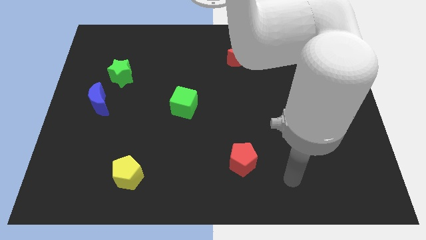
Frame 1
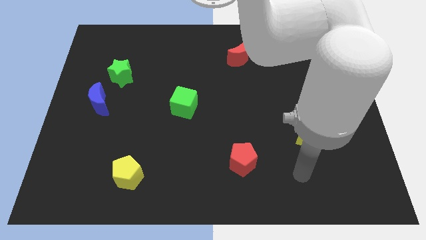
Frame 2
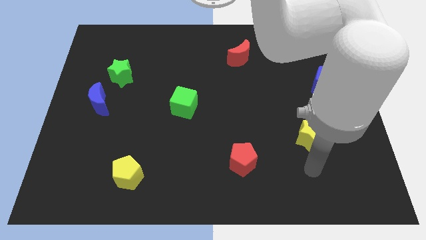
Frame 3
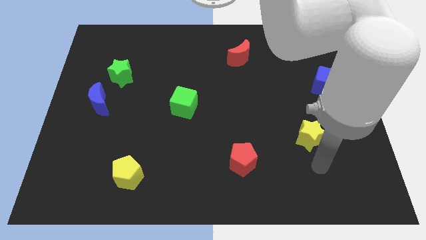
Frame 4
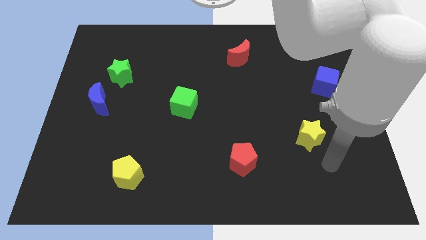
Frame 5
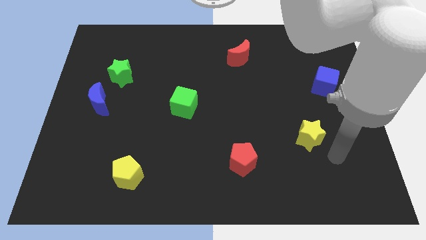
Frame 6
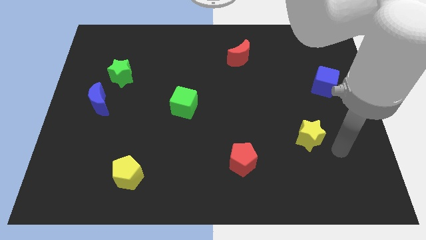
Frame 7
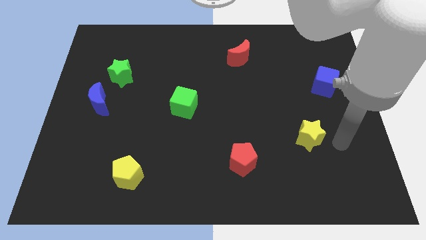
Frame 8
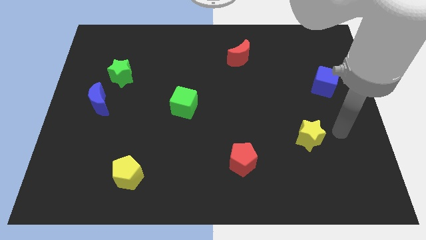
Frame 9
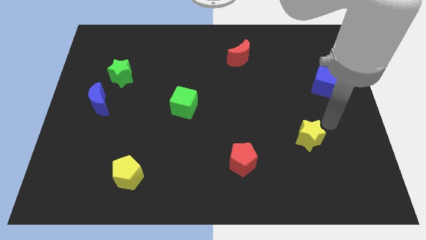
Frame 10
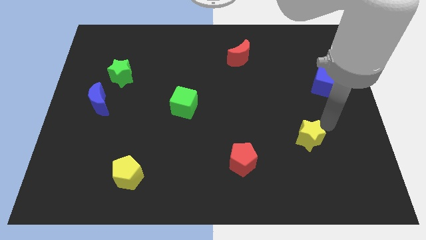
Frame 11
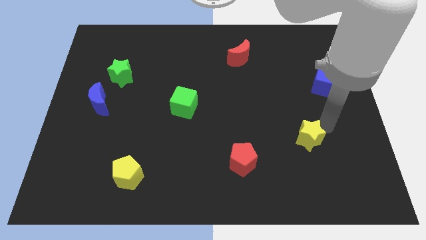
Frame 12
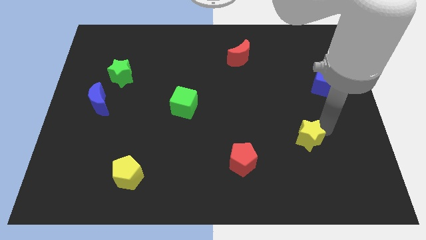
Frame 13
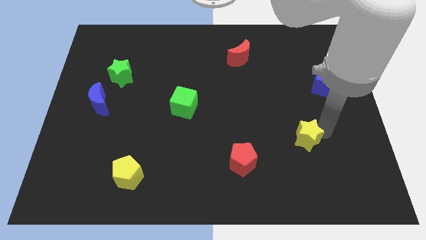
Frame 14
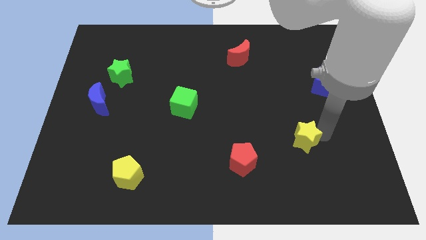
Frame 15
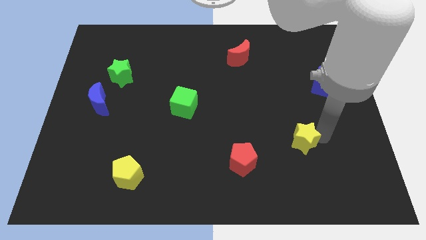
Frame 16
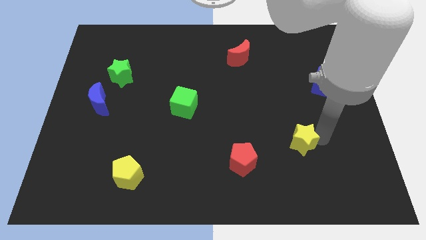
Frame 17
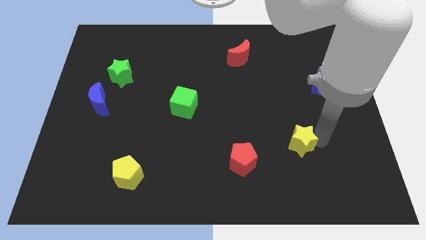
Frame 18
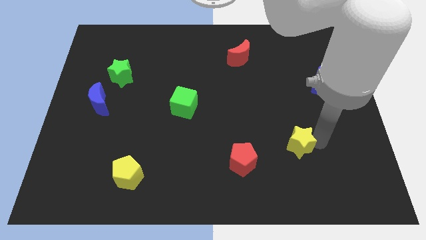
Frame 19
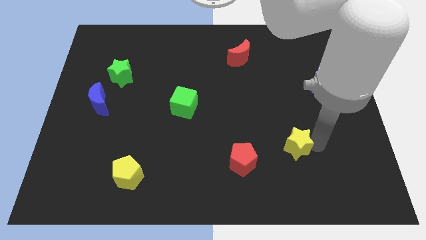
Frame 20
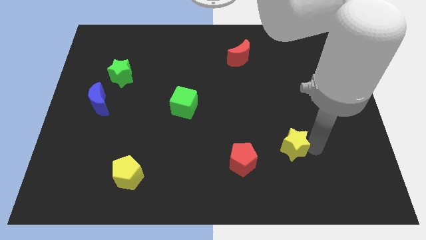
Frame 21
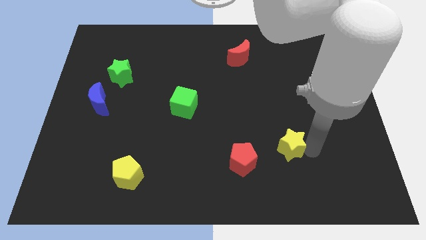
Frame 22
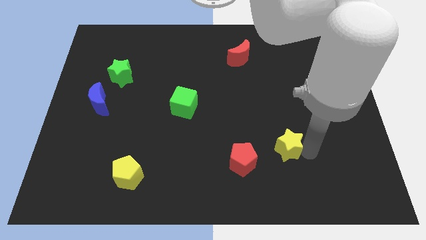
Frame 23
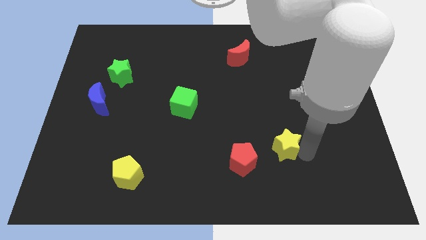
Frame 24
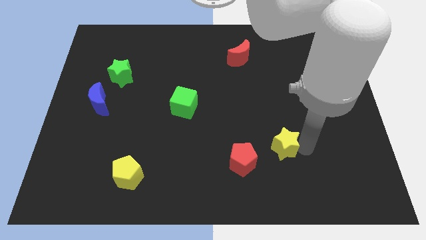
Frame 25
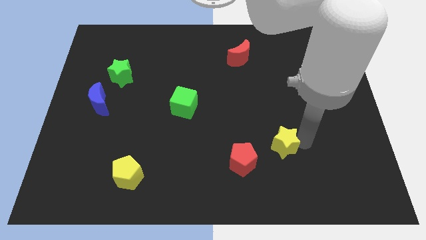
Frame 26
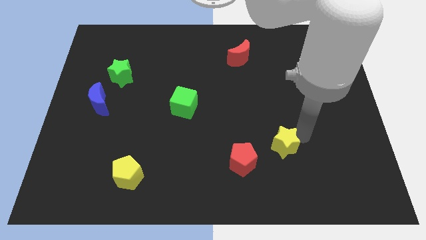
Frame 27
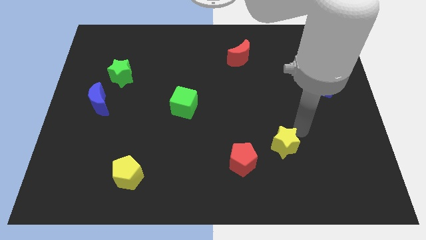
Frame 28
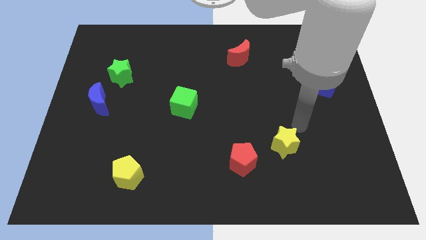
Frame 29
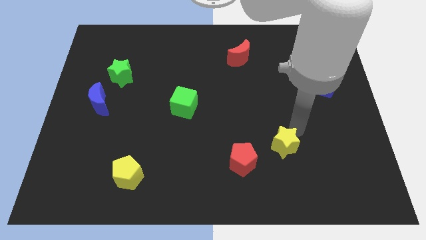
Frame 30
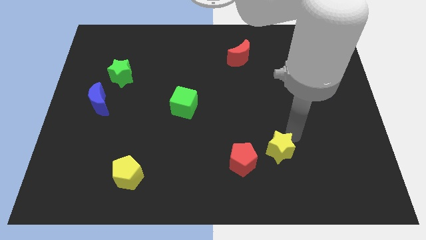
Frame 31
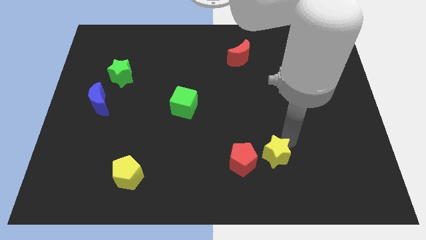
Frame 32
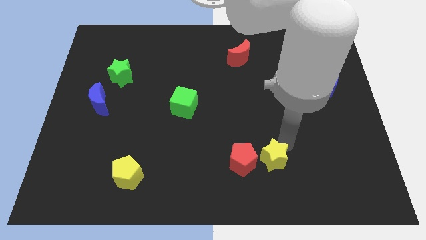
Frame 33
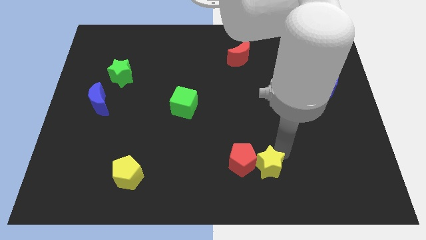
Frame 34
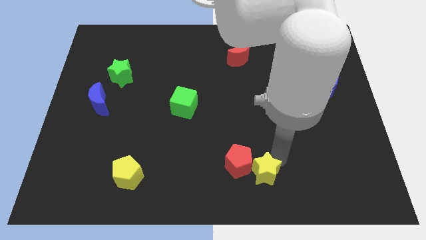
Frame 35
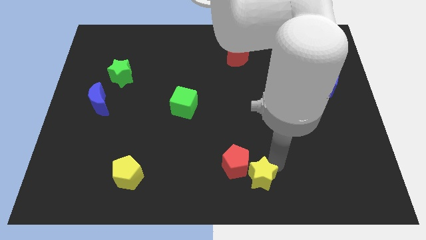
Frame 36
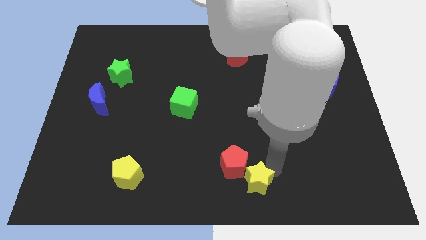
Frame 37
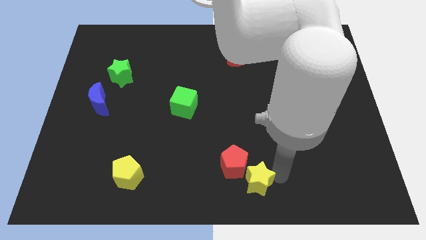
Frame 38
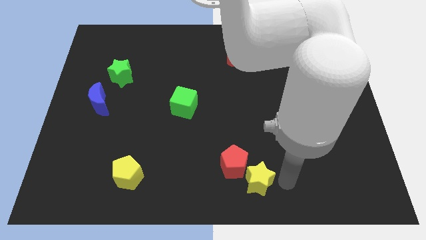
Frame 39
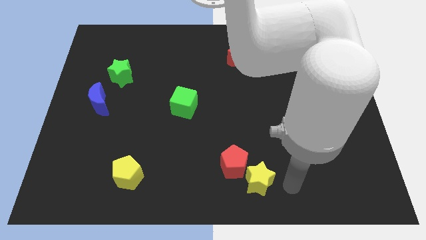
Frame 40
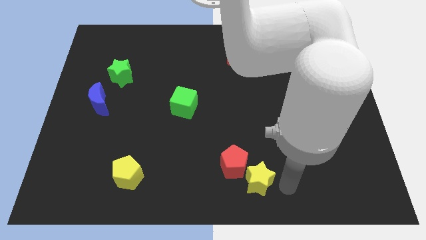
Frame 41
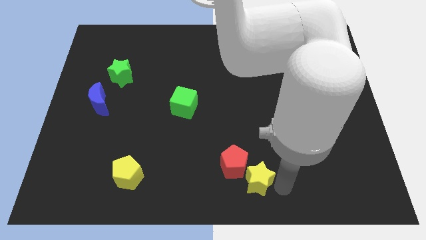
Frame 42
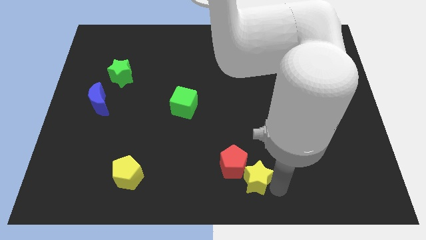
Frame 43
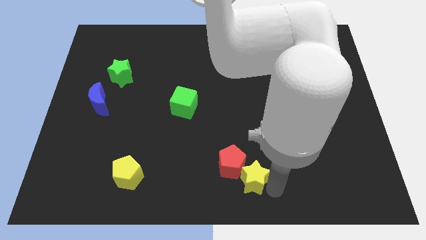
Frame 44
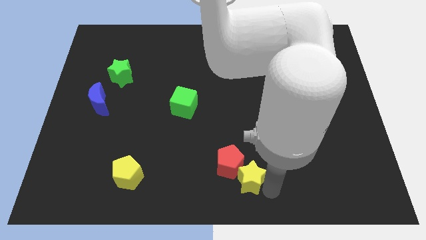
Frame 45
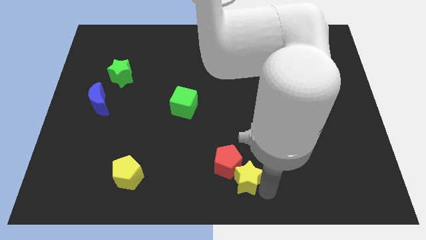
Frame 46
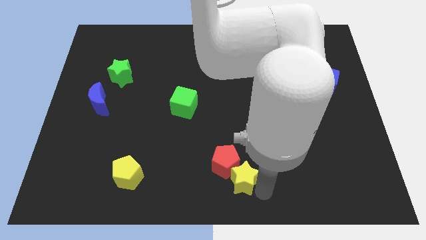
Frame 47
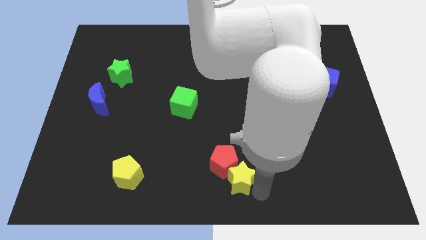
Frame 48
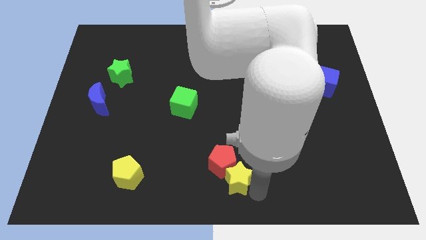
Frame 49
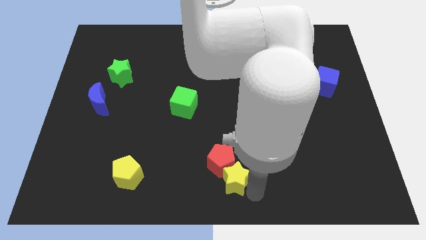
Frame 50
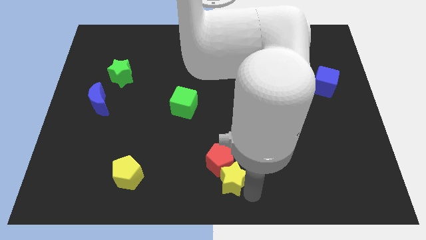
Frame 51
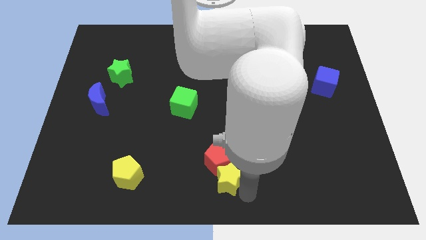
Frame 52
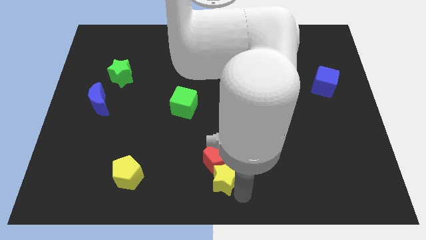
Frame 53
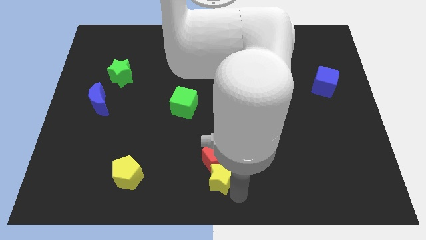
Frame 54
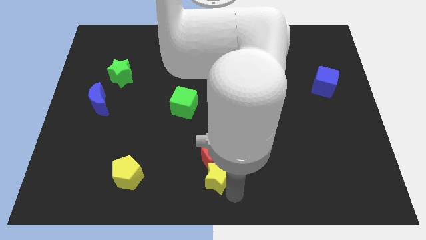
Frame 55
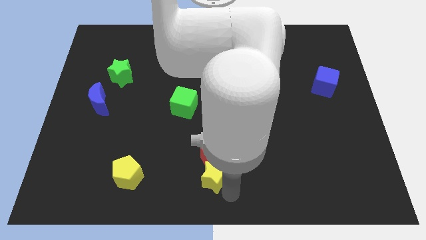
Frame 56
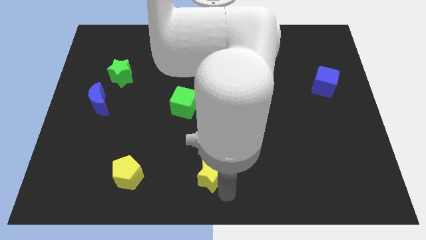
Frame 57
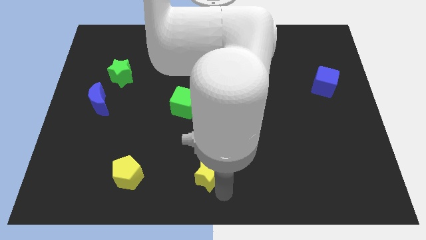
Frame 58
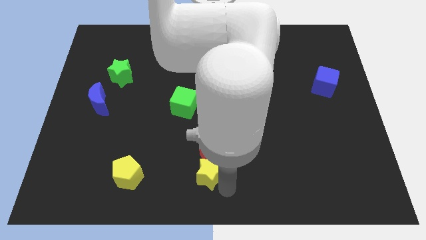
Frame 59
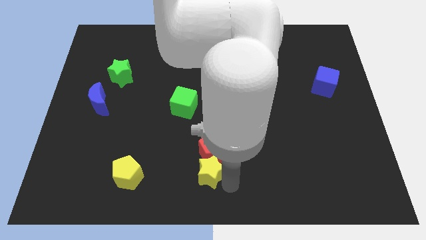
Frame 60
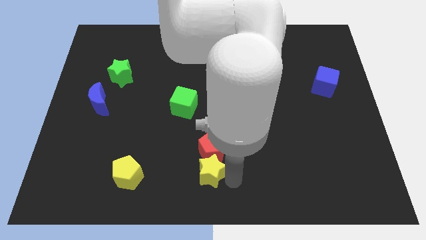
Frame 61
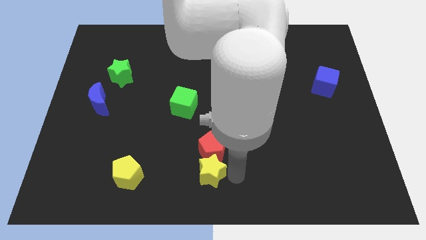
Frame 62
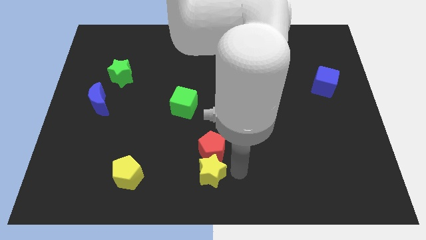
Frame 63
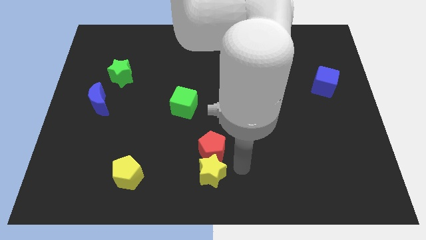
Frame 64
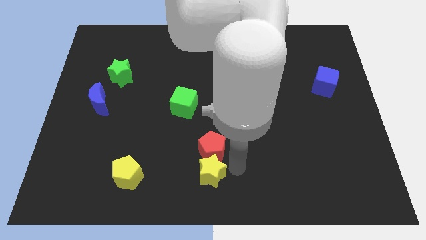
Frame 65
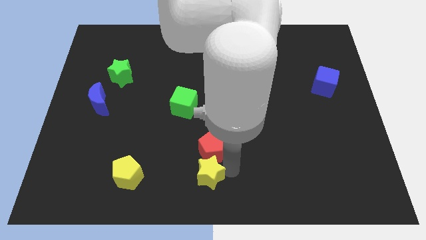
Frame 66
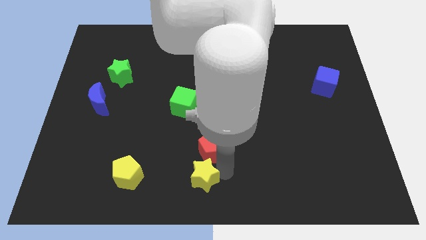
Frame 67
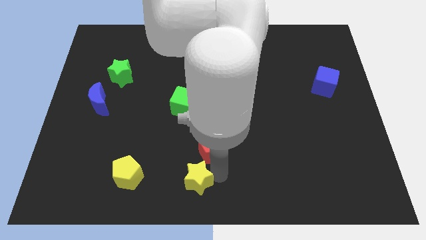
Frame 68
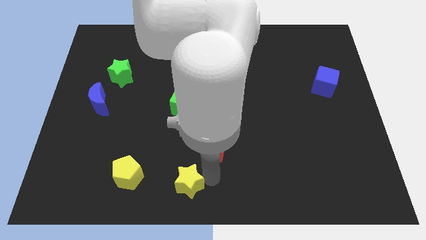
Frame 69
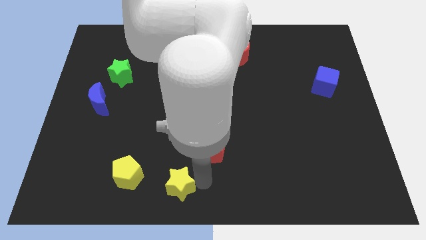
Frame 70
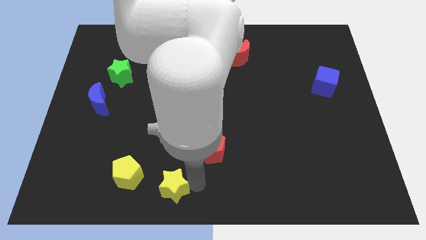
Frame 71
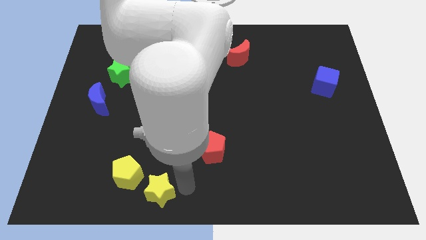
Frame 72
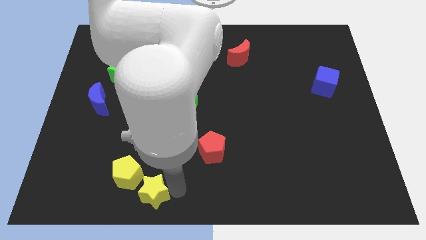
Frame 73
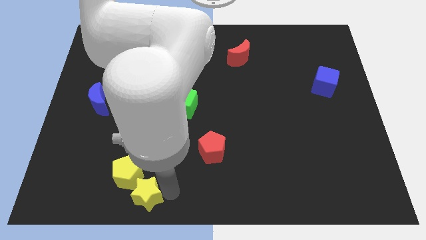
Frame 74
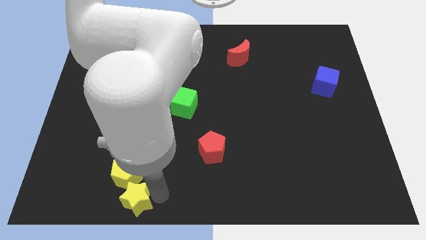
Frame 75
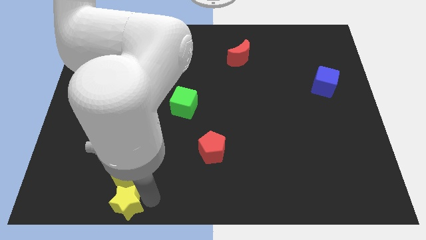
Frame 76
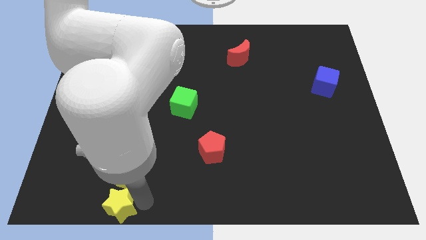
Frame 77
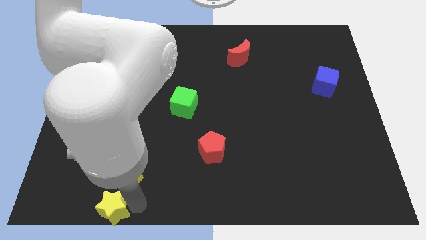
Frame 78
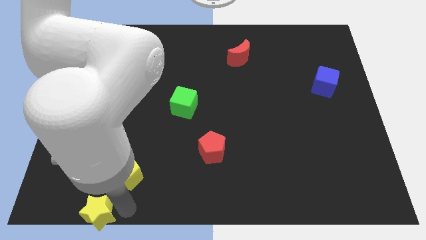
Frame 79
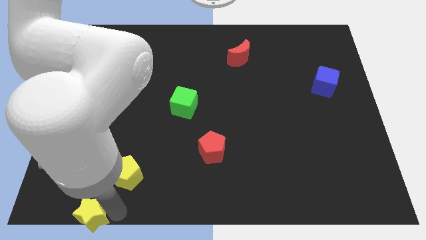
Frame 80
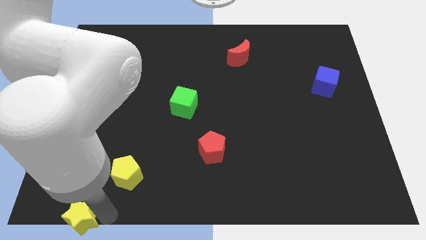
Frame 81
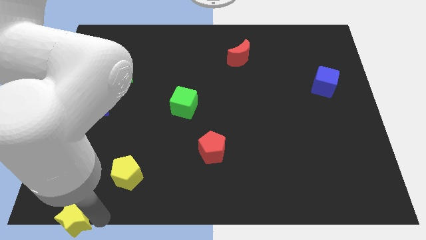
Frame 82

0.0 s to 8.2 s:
push the yellow star to the bottom left
